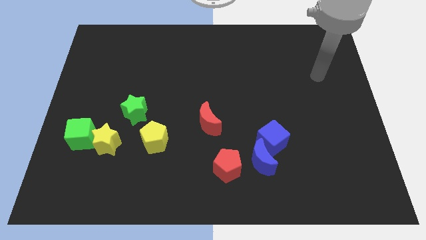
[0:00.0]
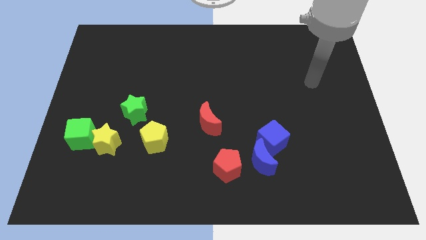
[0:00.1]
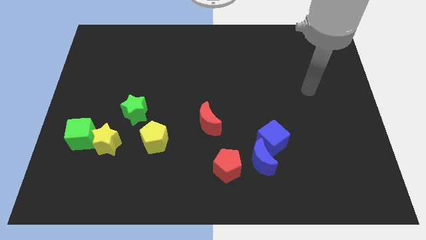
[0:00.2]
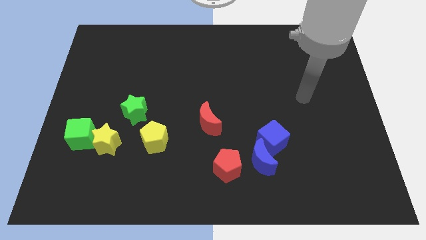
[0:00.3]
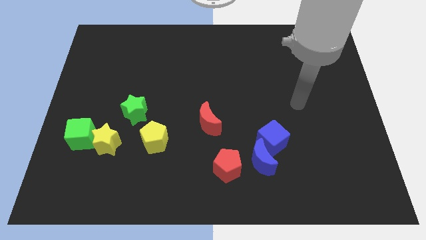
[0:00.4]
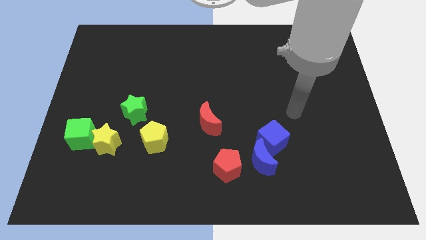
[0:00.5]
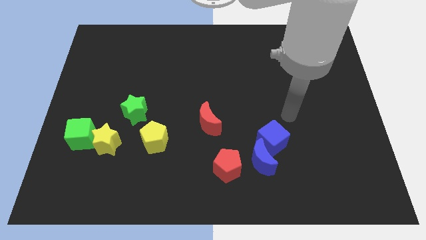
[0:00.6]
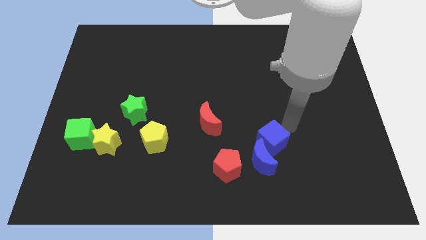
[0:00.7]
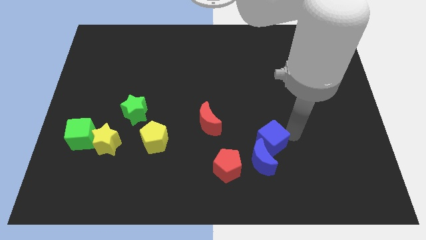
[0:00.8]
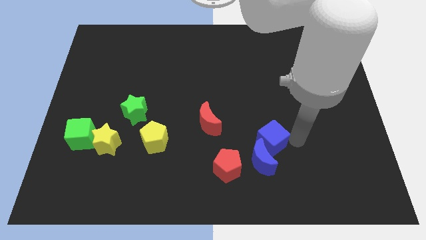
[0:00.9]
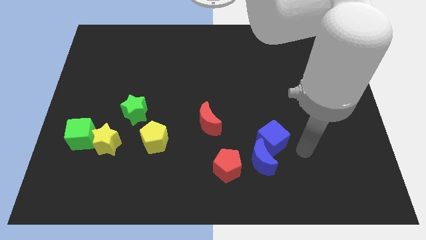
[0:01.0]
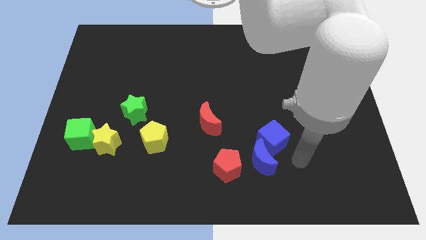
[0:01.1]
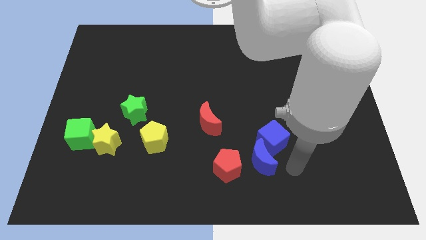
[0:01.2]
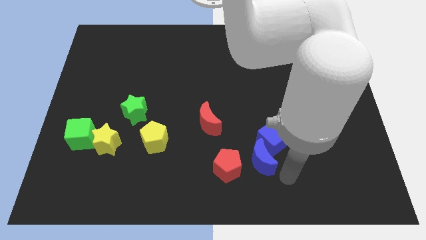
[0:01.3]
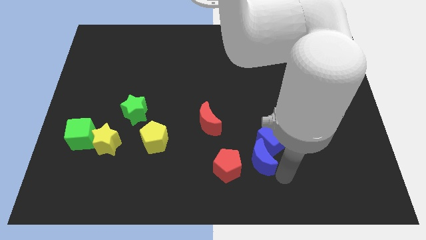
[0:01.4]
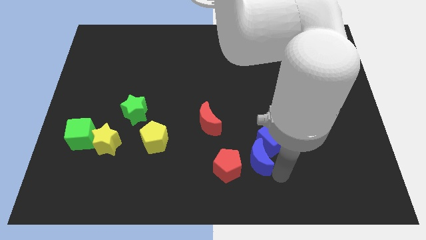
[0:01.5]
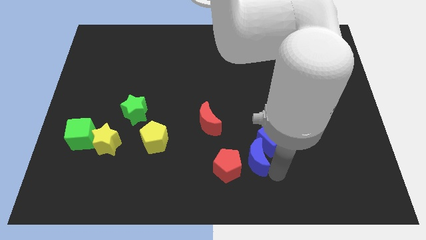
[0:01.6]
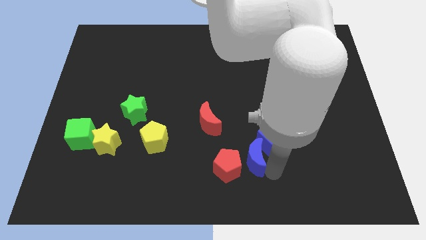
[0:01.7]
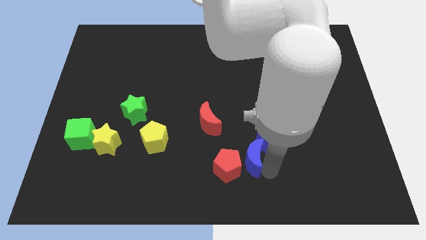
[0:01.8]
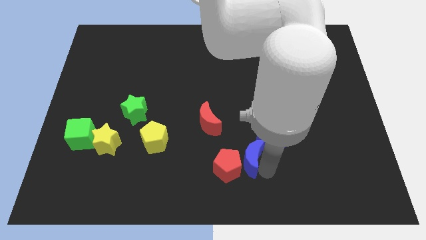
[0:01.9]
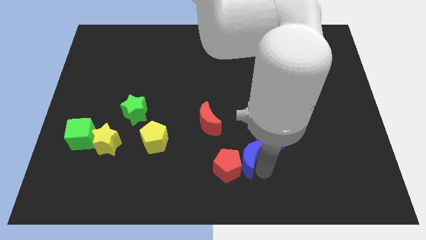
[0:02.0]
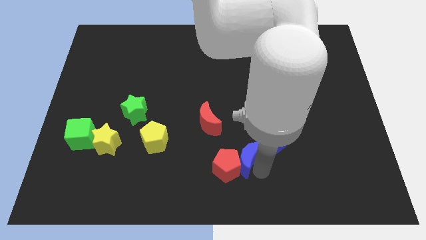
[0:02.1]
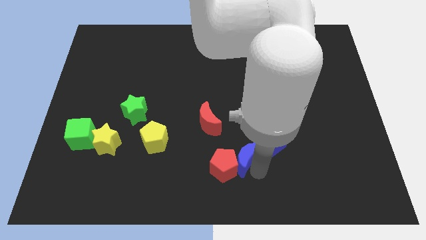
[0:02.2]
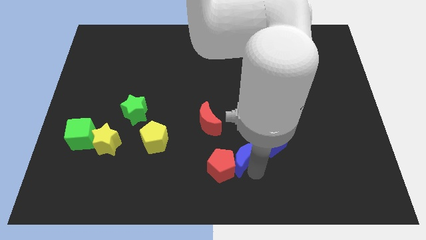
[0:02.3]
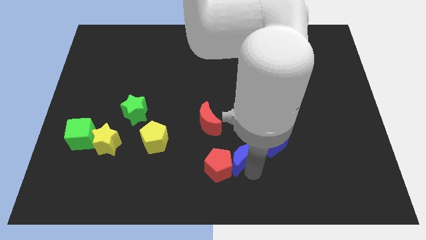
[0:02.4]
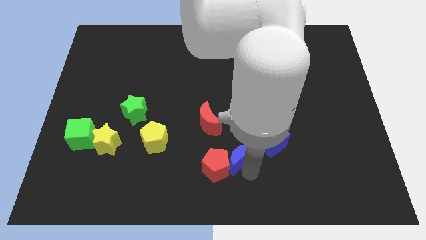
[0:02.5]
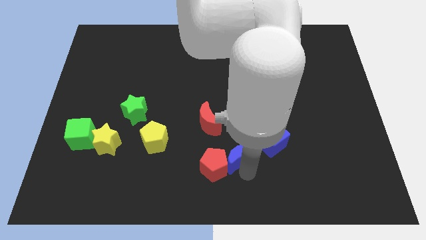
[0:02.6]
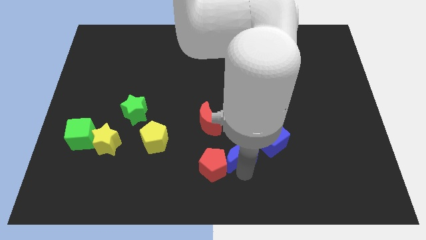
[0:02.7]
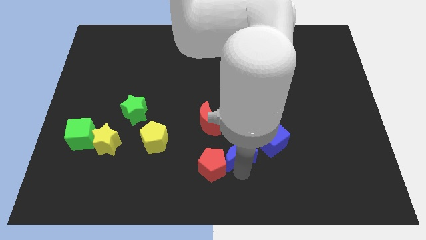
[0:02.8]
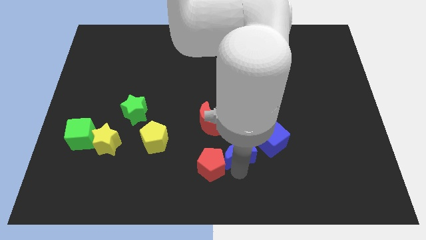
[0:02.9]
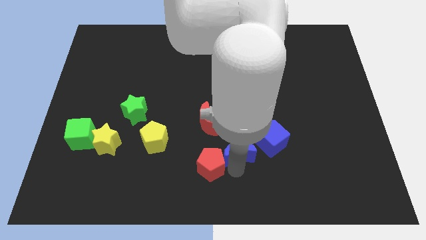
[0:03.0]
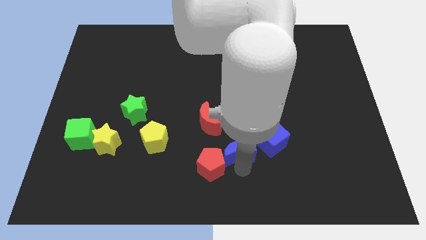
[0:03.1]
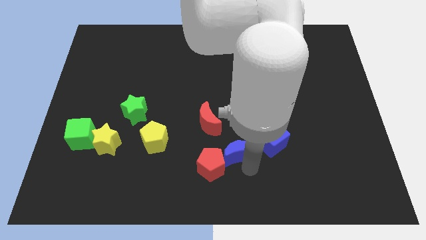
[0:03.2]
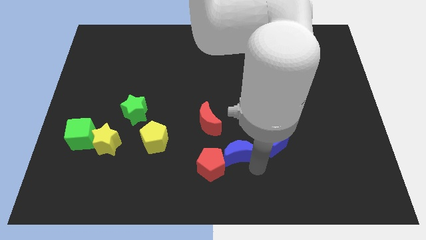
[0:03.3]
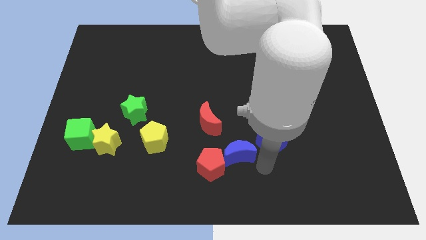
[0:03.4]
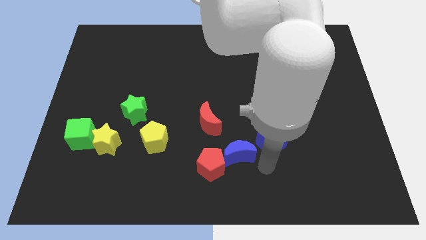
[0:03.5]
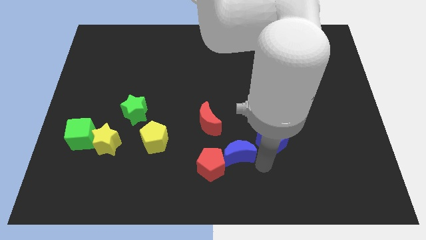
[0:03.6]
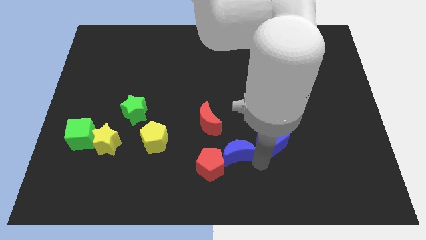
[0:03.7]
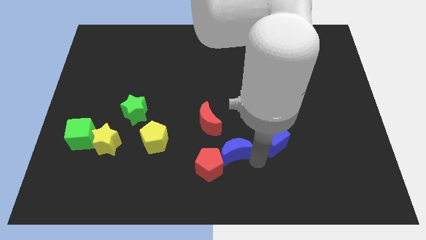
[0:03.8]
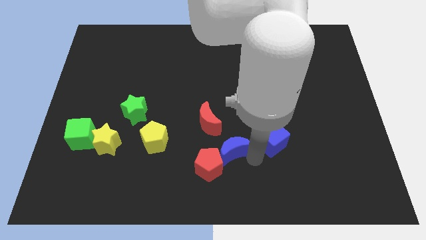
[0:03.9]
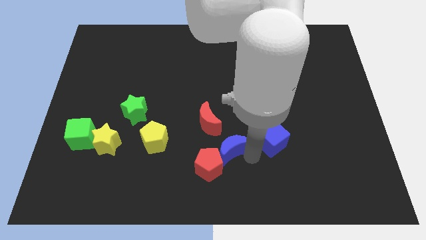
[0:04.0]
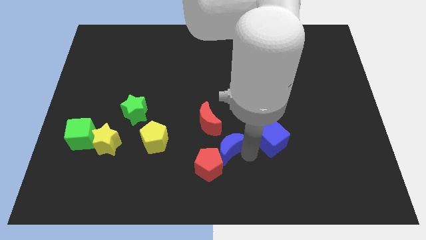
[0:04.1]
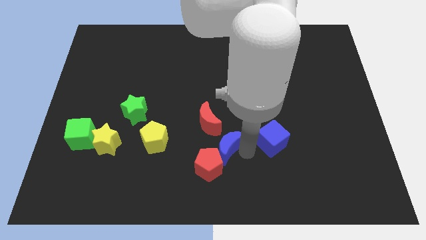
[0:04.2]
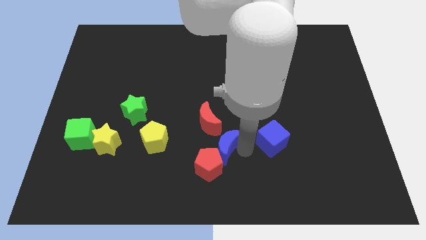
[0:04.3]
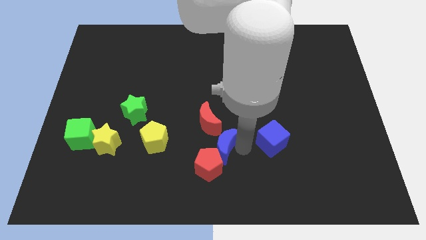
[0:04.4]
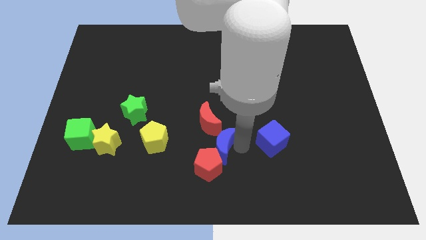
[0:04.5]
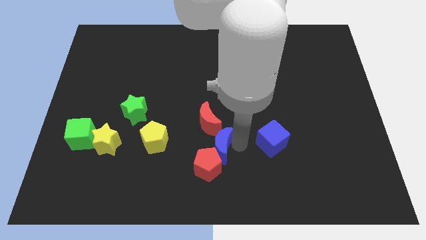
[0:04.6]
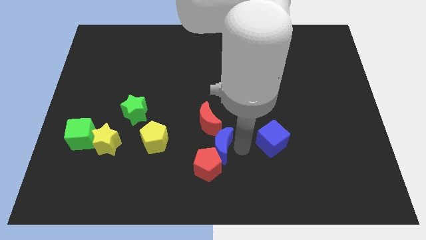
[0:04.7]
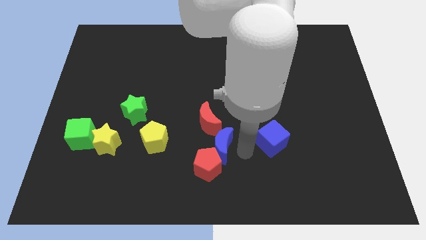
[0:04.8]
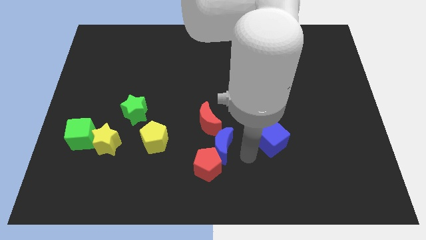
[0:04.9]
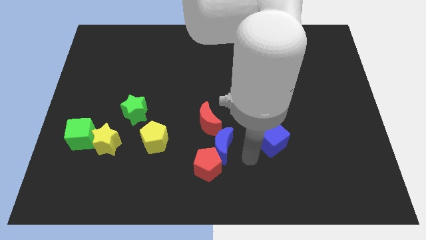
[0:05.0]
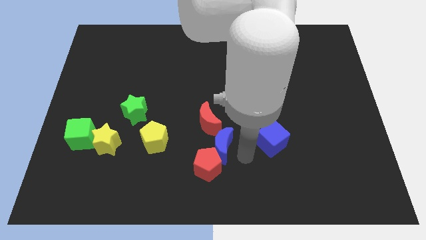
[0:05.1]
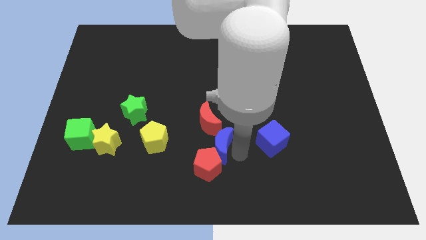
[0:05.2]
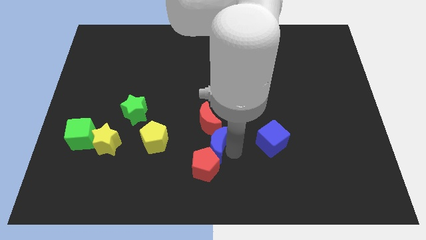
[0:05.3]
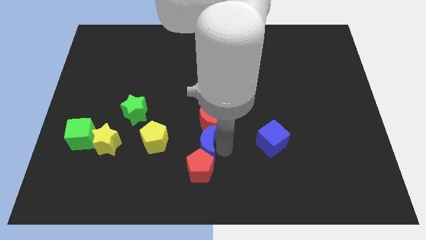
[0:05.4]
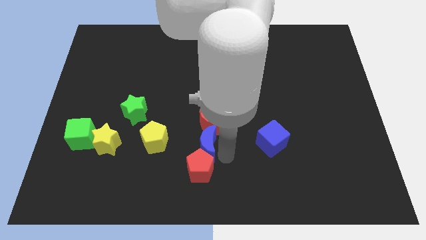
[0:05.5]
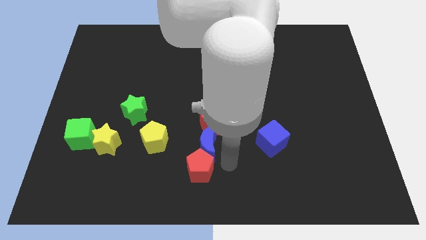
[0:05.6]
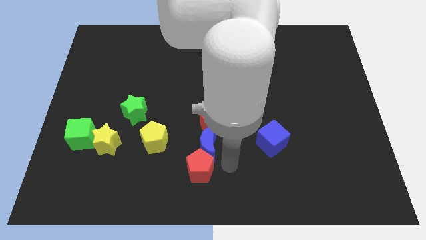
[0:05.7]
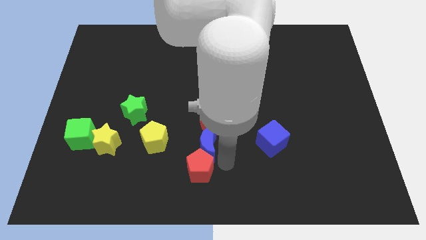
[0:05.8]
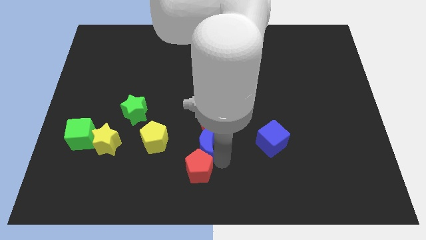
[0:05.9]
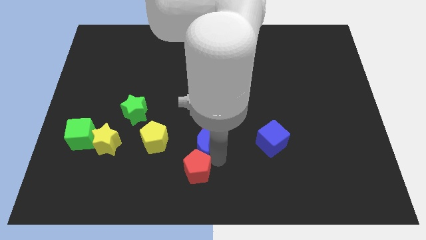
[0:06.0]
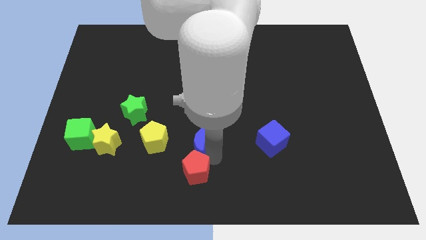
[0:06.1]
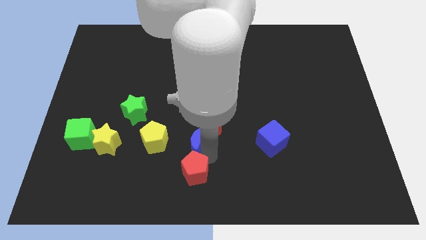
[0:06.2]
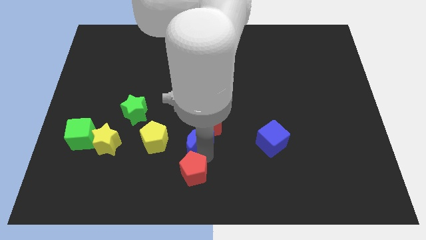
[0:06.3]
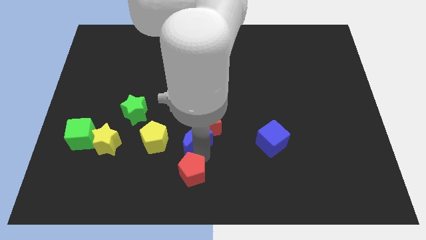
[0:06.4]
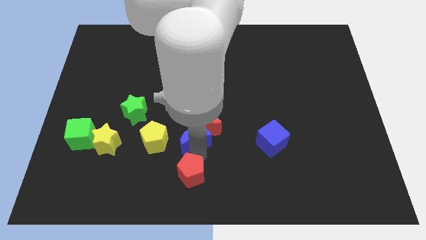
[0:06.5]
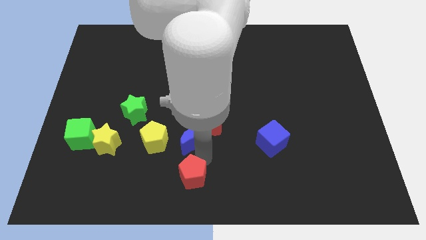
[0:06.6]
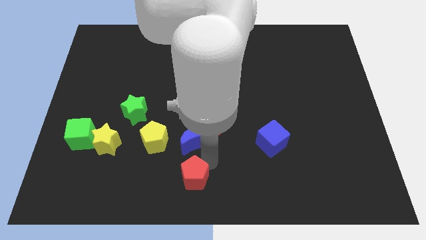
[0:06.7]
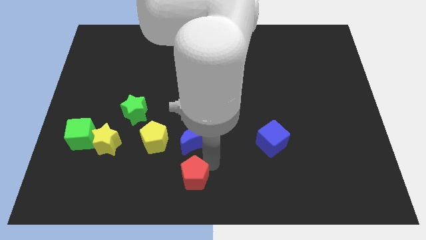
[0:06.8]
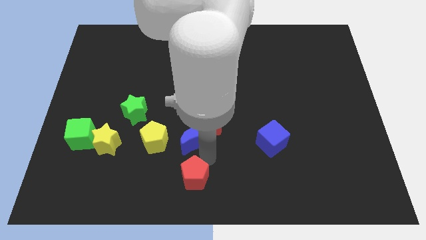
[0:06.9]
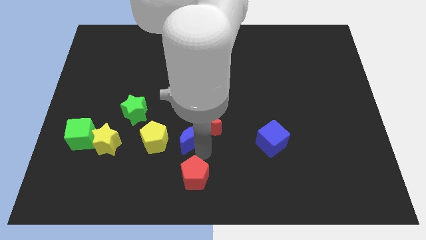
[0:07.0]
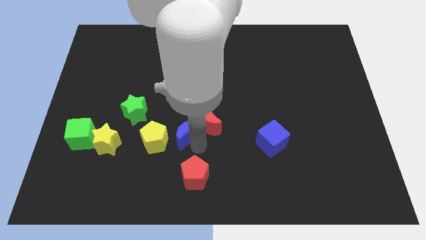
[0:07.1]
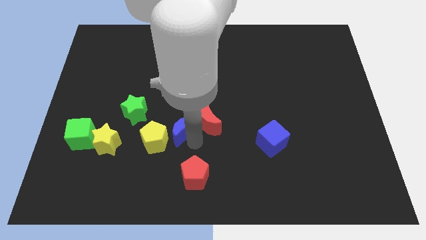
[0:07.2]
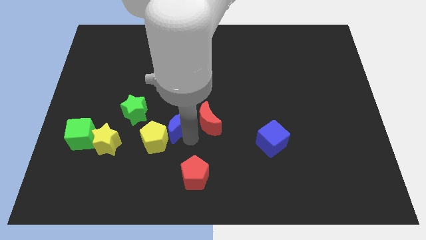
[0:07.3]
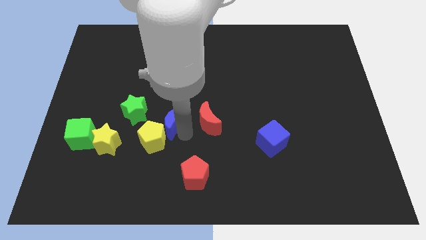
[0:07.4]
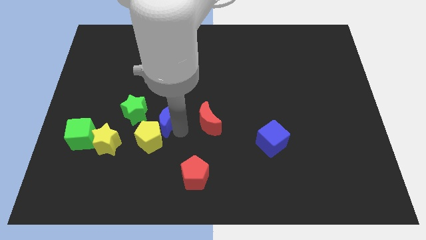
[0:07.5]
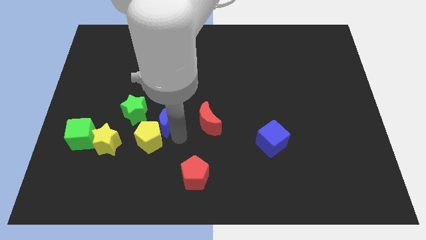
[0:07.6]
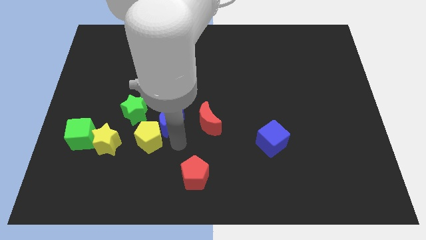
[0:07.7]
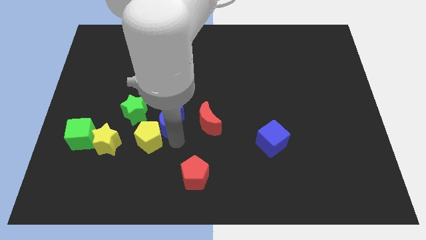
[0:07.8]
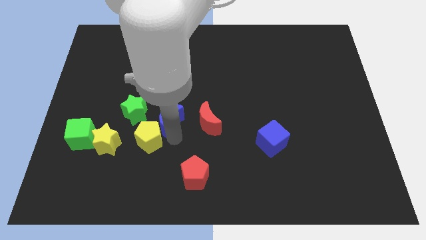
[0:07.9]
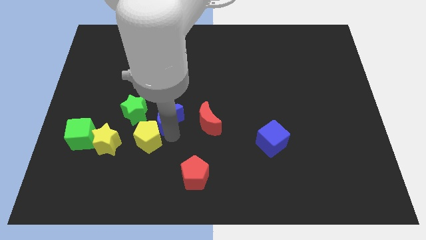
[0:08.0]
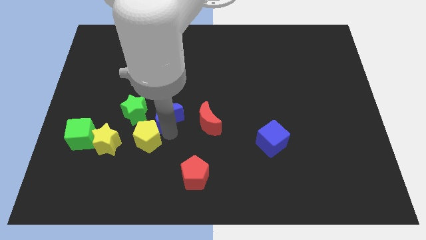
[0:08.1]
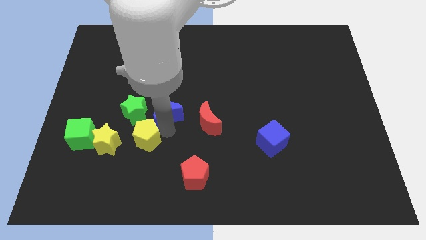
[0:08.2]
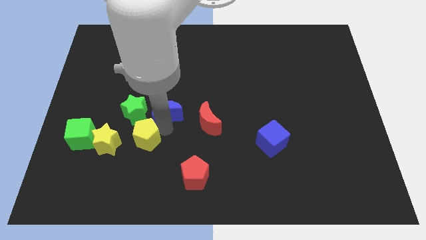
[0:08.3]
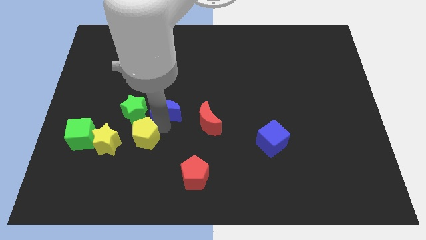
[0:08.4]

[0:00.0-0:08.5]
put the blue moon diagonally up and to the right of the green star
